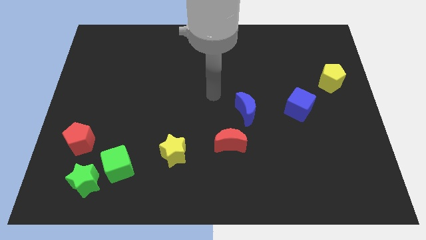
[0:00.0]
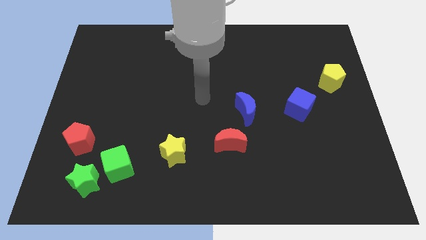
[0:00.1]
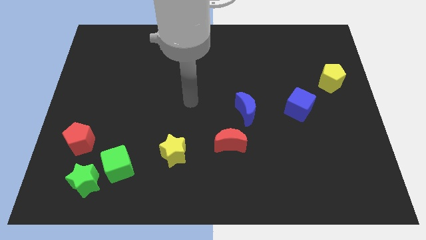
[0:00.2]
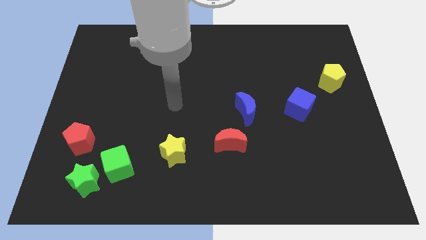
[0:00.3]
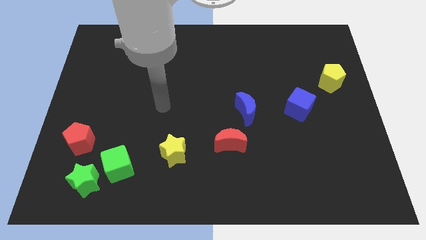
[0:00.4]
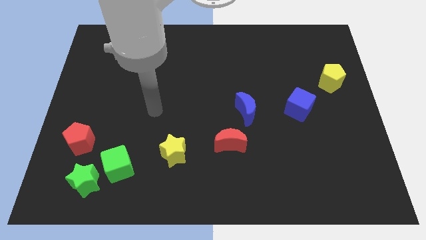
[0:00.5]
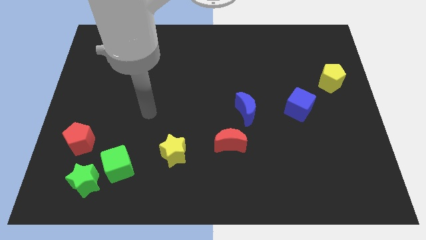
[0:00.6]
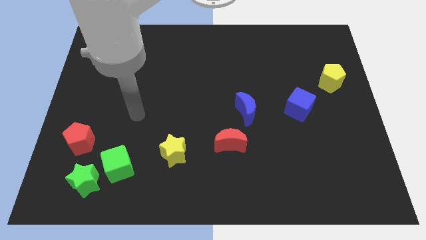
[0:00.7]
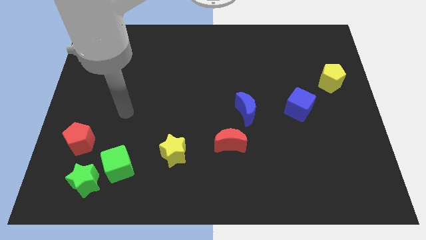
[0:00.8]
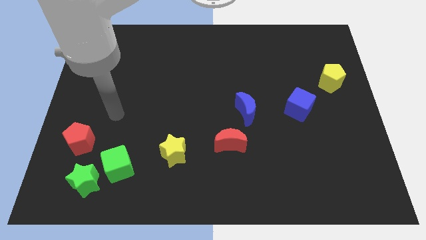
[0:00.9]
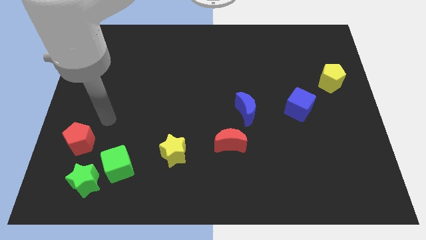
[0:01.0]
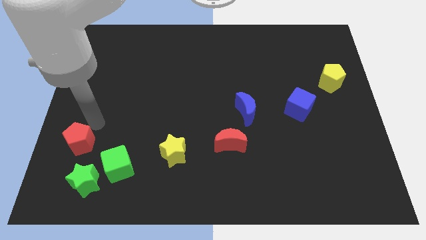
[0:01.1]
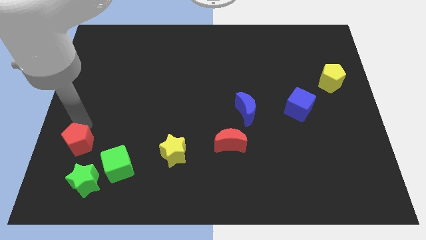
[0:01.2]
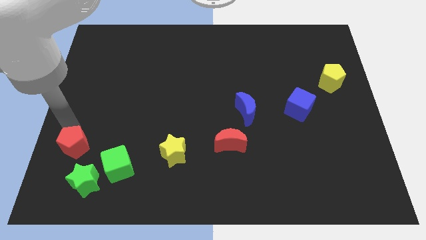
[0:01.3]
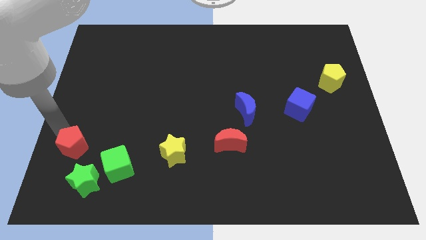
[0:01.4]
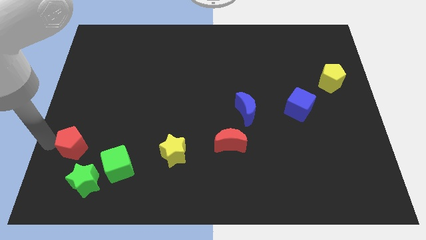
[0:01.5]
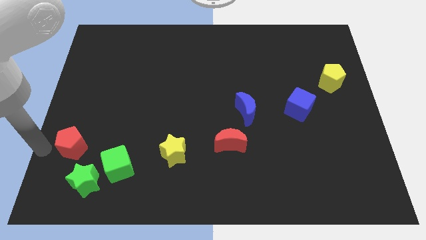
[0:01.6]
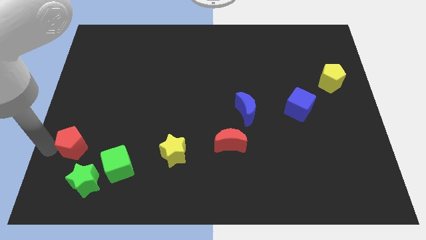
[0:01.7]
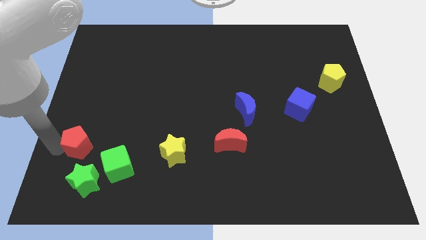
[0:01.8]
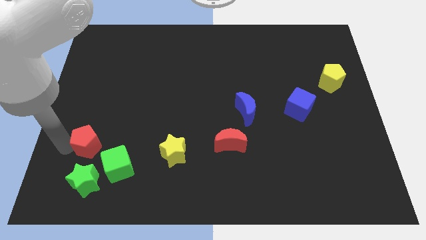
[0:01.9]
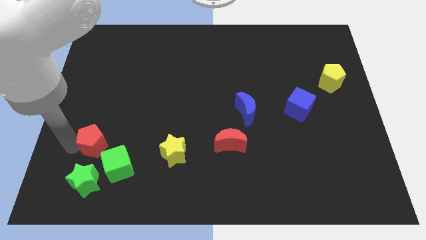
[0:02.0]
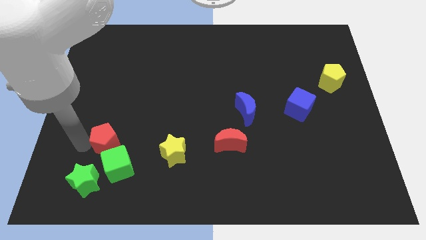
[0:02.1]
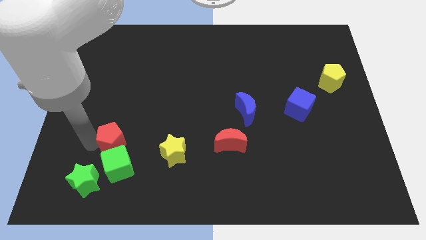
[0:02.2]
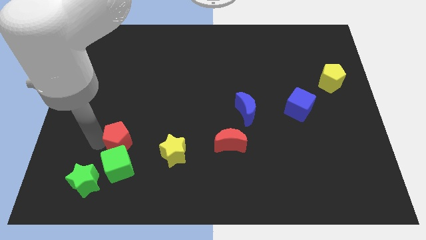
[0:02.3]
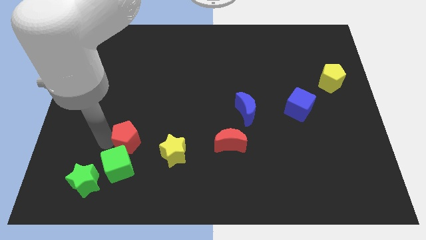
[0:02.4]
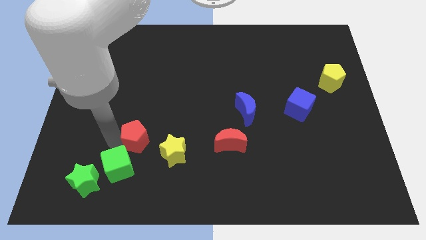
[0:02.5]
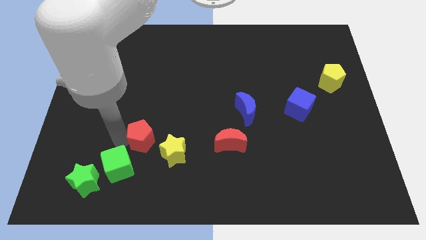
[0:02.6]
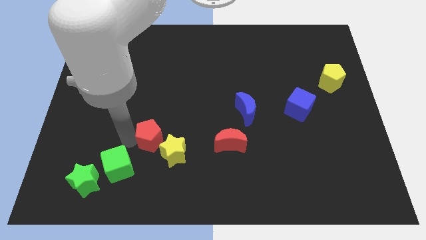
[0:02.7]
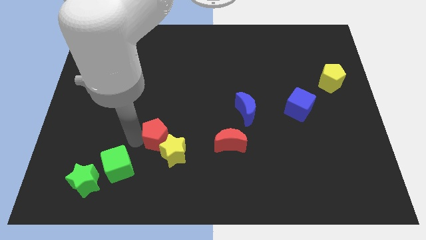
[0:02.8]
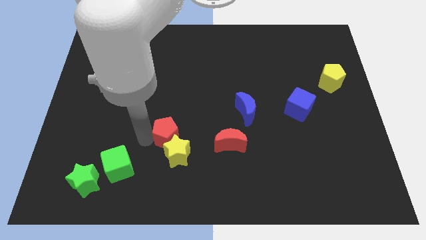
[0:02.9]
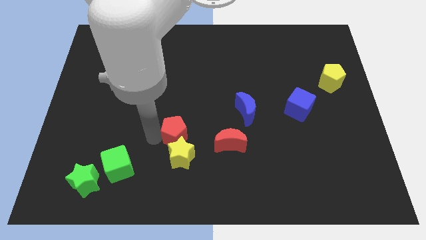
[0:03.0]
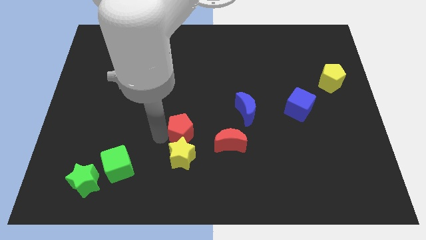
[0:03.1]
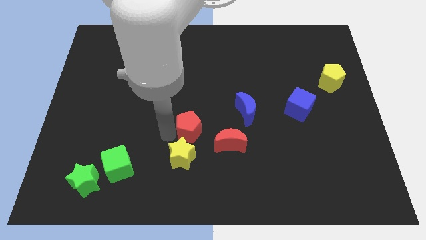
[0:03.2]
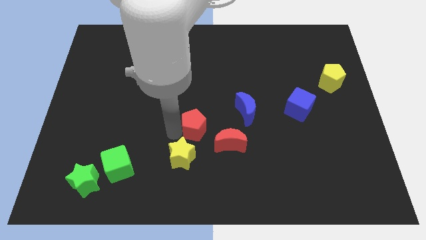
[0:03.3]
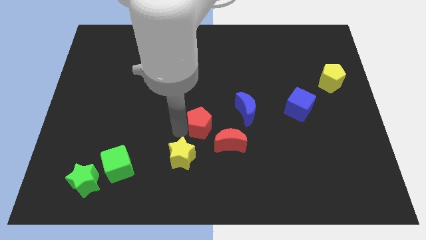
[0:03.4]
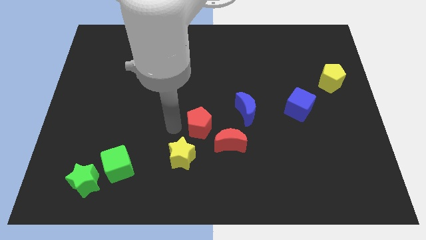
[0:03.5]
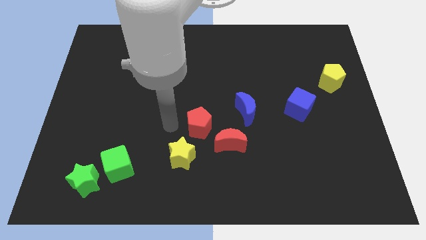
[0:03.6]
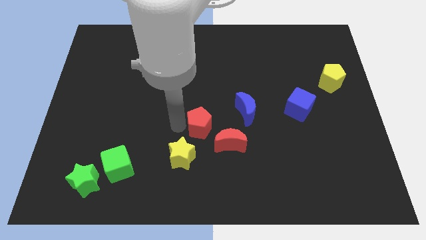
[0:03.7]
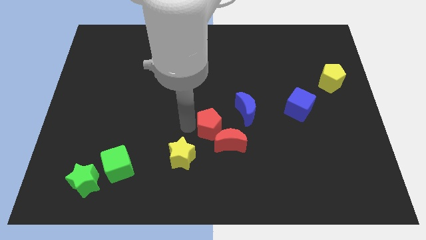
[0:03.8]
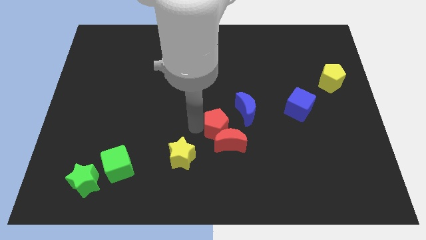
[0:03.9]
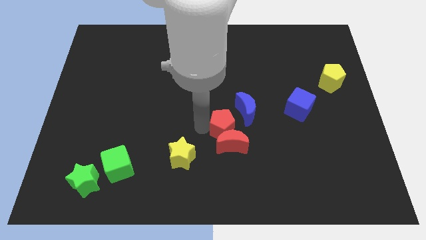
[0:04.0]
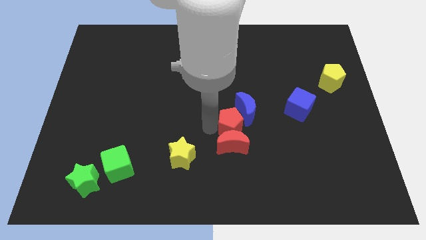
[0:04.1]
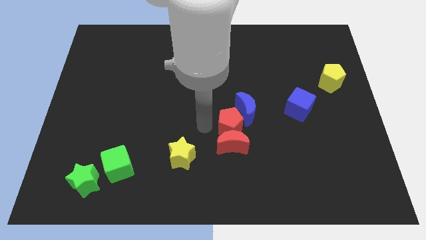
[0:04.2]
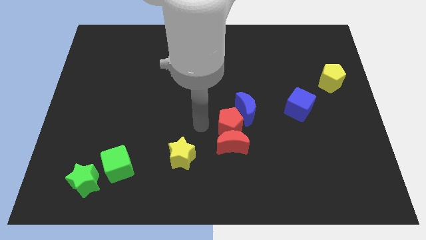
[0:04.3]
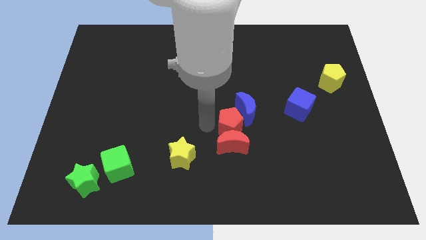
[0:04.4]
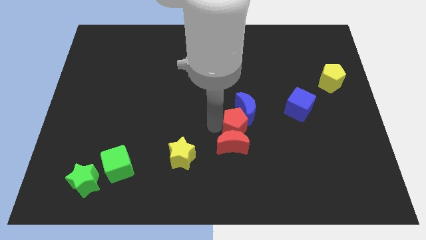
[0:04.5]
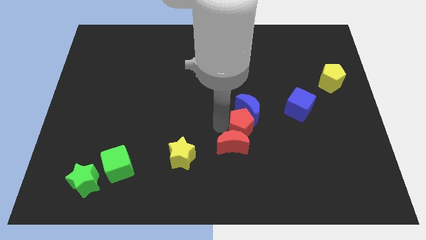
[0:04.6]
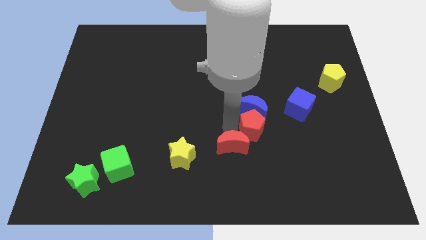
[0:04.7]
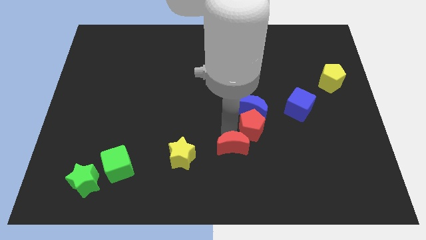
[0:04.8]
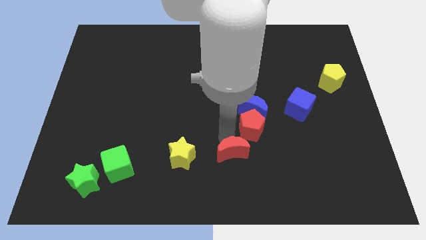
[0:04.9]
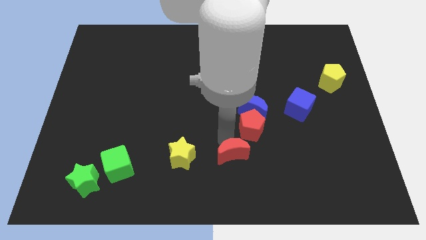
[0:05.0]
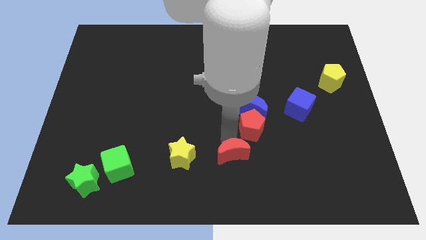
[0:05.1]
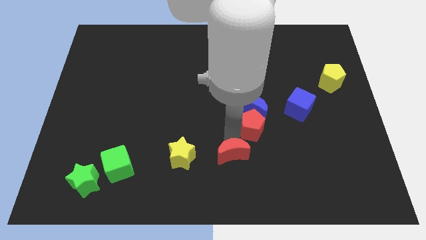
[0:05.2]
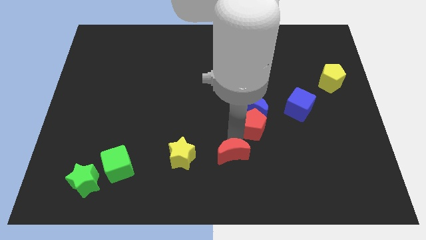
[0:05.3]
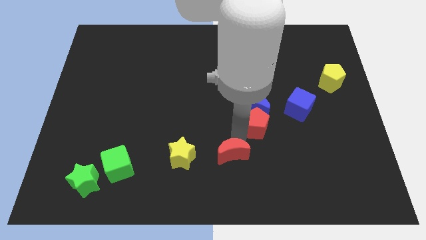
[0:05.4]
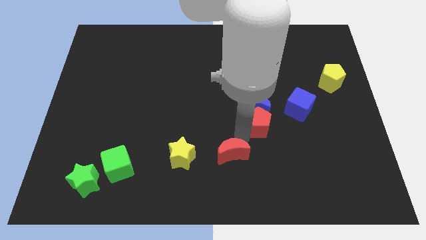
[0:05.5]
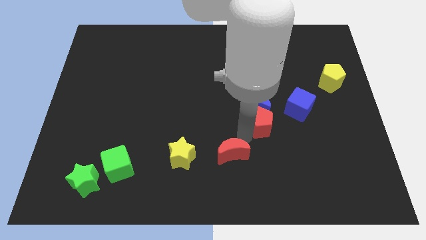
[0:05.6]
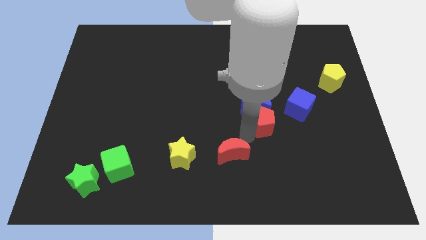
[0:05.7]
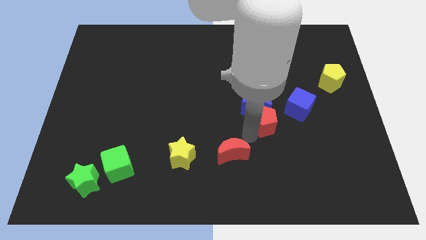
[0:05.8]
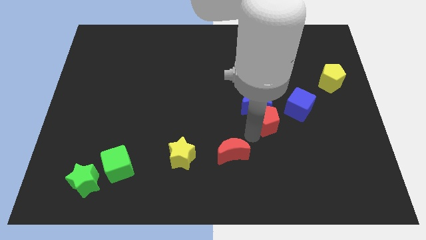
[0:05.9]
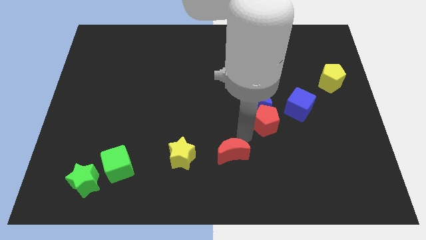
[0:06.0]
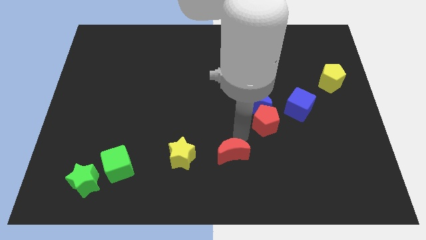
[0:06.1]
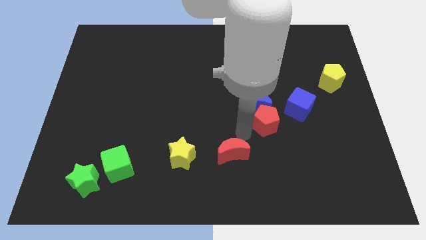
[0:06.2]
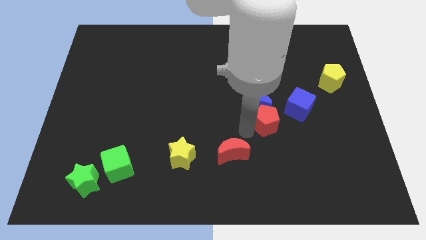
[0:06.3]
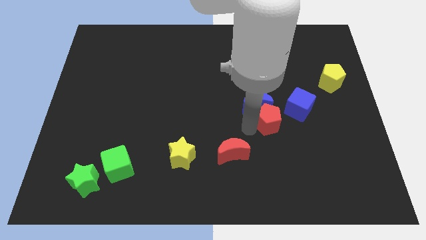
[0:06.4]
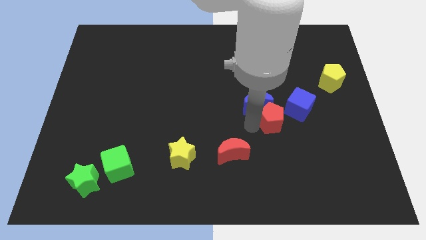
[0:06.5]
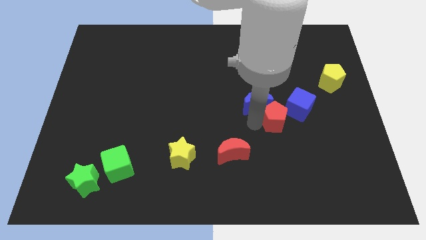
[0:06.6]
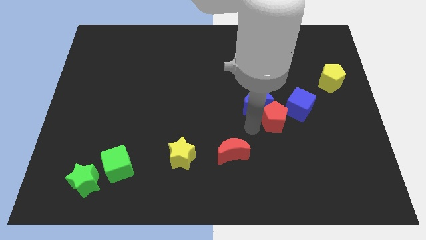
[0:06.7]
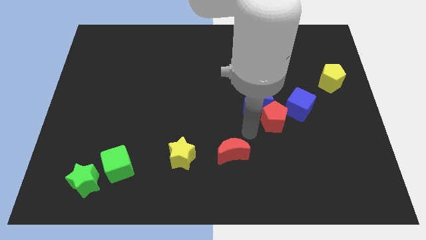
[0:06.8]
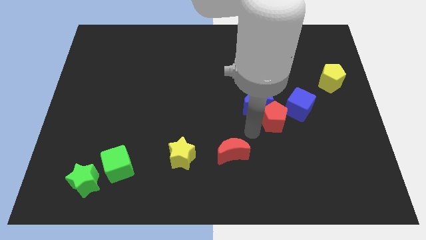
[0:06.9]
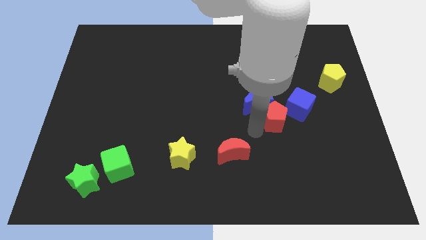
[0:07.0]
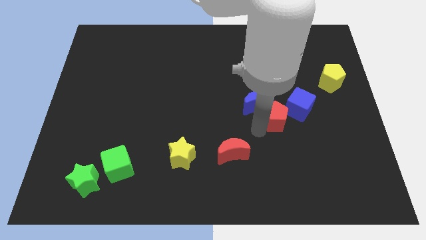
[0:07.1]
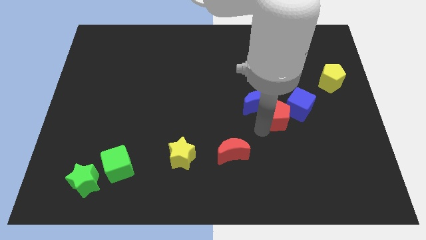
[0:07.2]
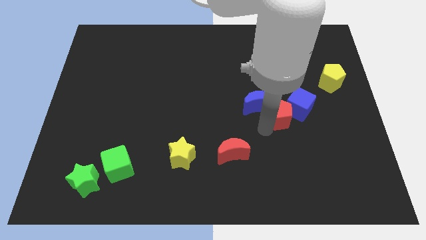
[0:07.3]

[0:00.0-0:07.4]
move the red pentagon close to the blue cube

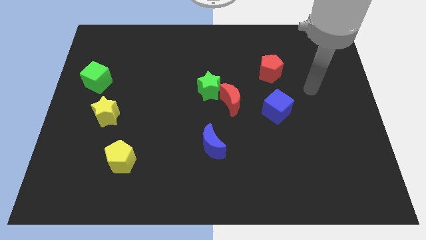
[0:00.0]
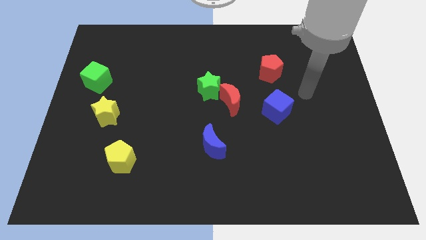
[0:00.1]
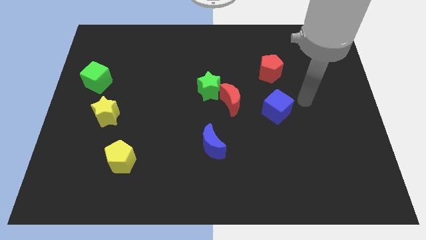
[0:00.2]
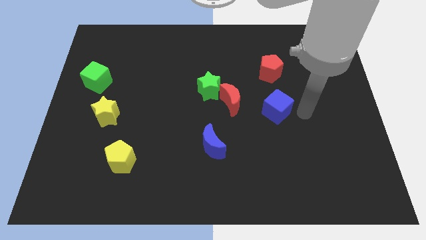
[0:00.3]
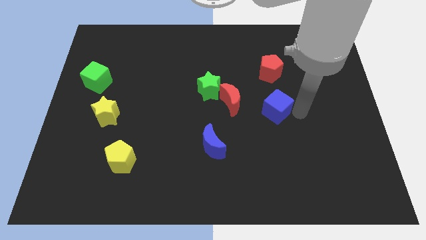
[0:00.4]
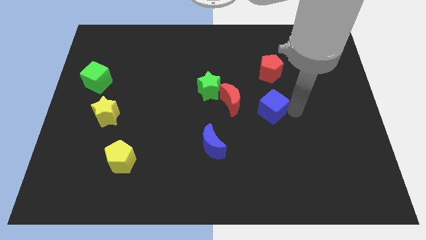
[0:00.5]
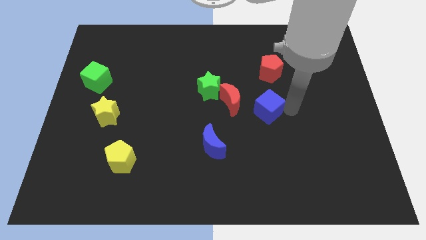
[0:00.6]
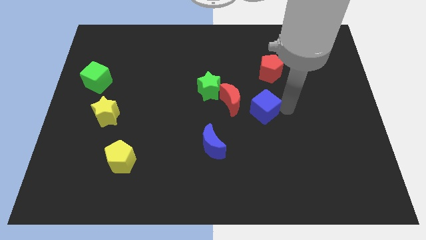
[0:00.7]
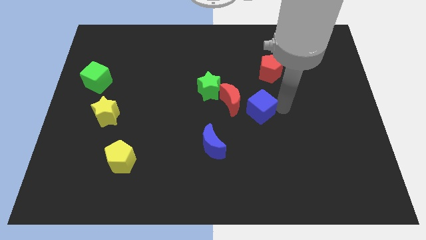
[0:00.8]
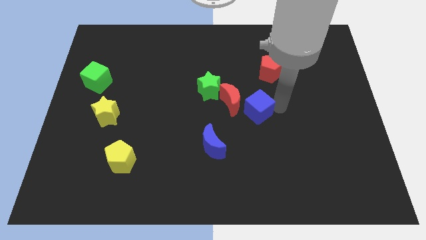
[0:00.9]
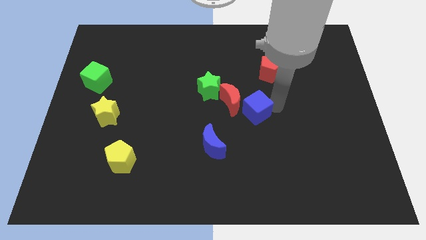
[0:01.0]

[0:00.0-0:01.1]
slide the blue cube to the red moon
